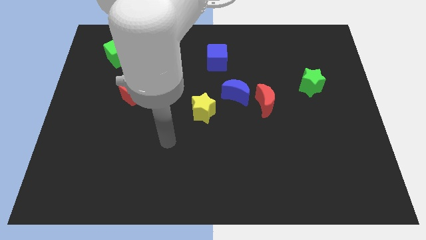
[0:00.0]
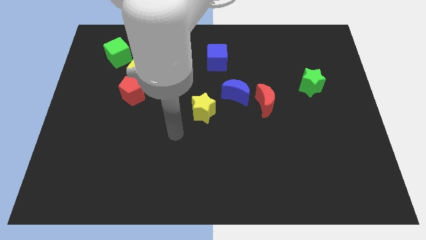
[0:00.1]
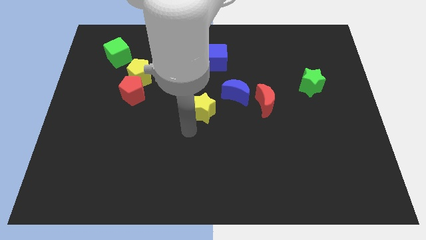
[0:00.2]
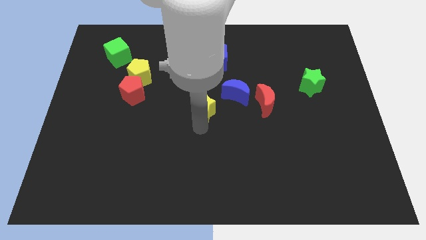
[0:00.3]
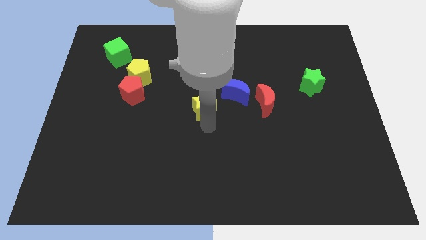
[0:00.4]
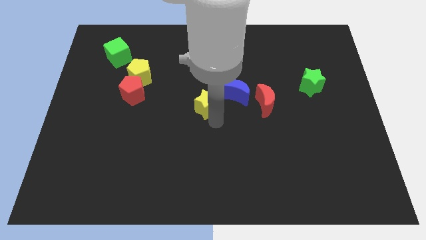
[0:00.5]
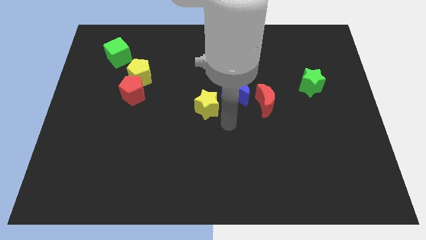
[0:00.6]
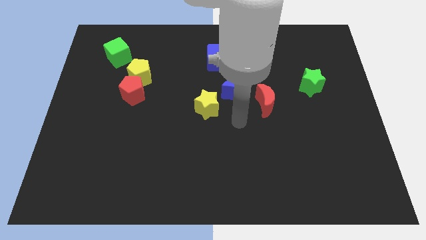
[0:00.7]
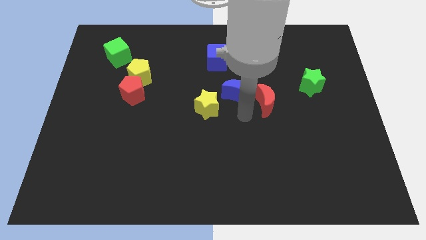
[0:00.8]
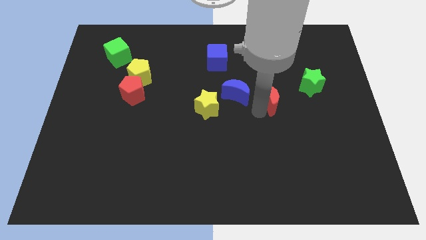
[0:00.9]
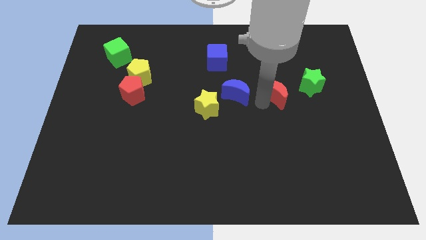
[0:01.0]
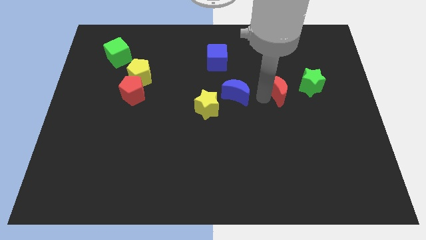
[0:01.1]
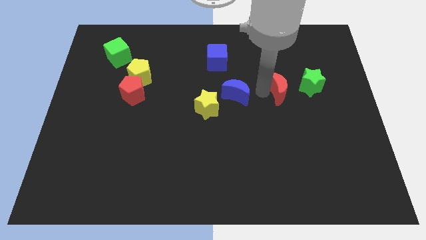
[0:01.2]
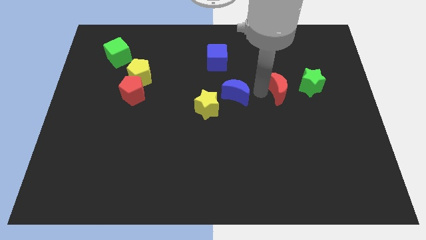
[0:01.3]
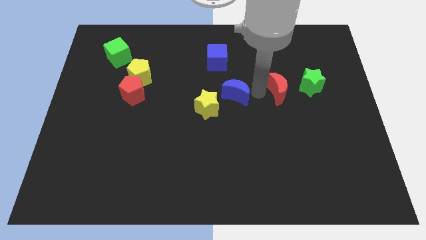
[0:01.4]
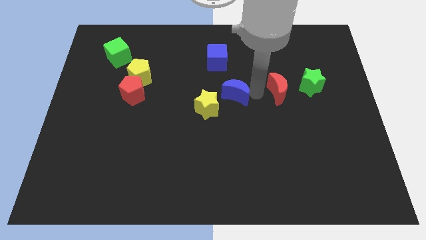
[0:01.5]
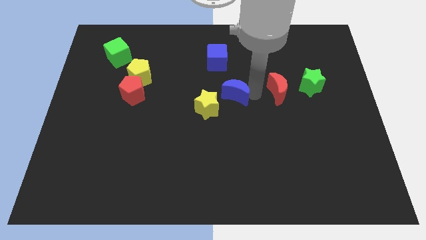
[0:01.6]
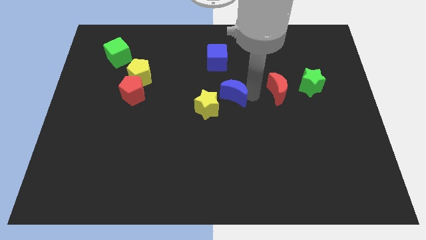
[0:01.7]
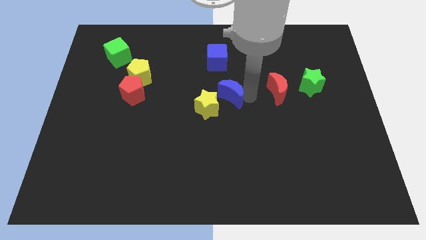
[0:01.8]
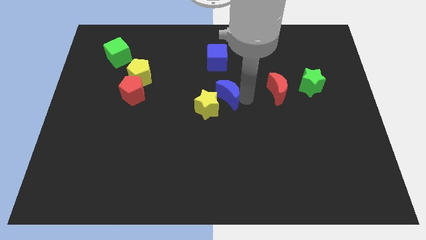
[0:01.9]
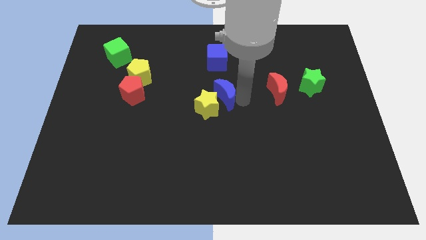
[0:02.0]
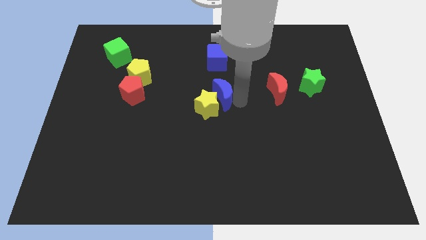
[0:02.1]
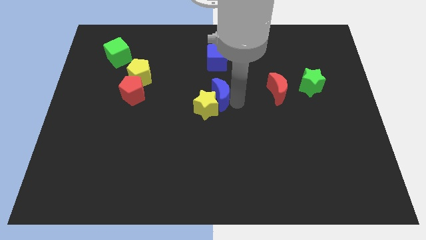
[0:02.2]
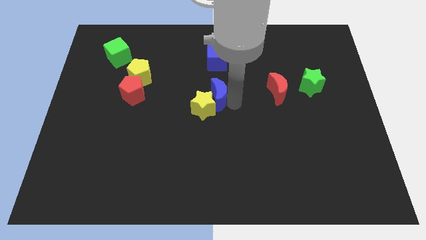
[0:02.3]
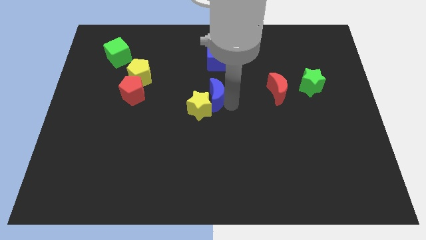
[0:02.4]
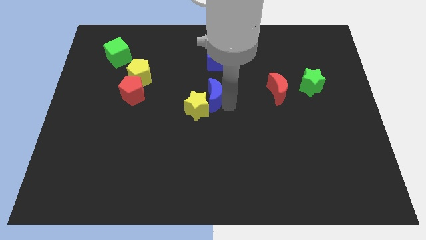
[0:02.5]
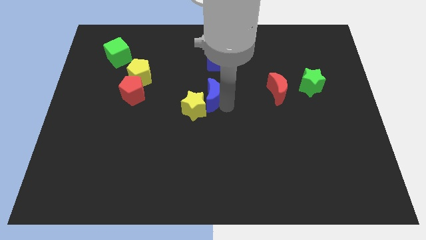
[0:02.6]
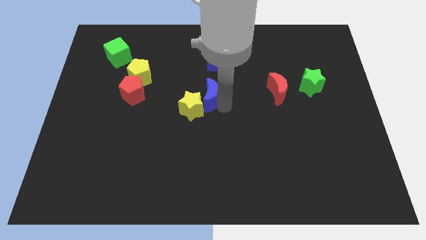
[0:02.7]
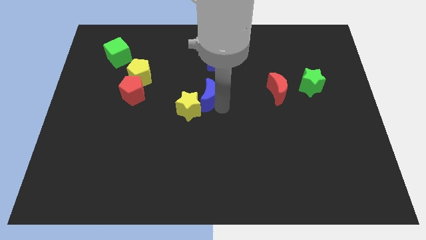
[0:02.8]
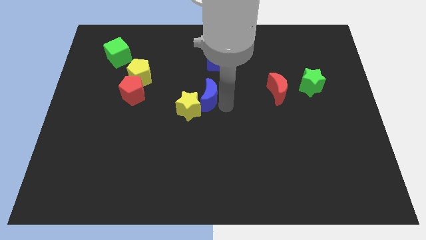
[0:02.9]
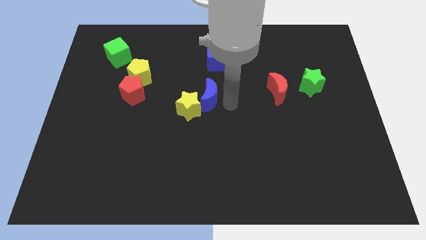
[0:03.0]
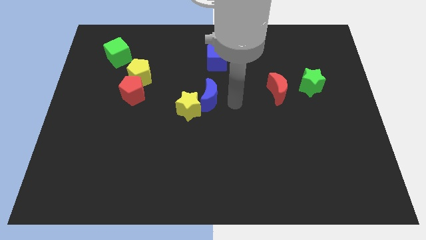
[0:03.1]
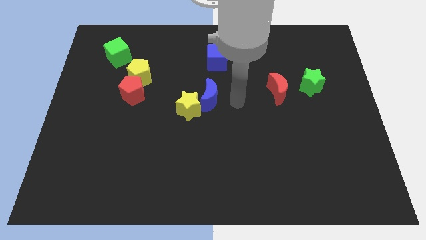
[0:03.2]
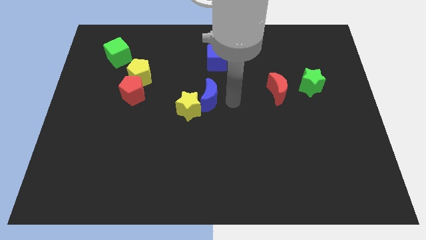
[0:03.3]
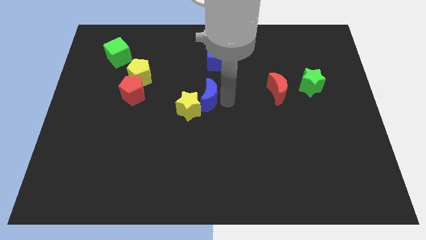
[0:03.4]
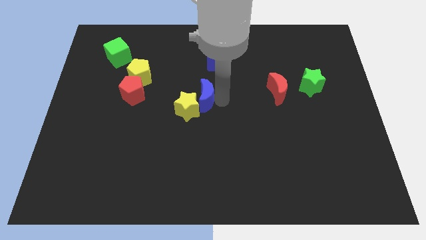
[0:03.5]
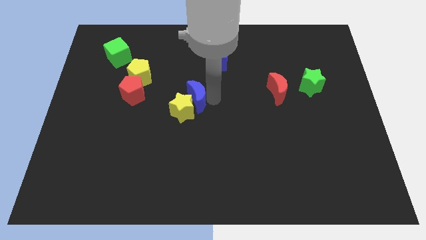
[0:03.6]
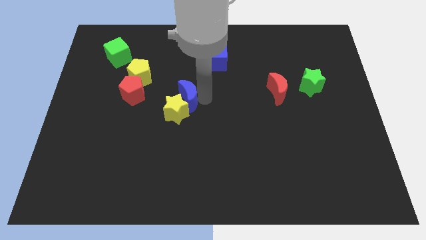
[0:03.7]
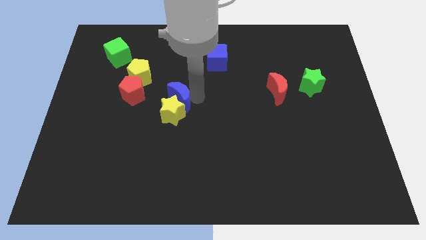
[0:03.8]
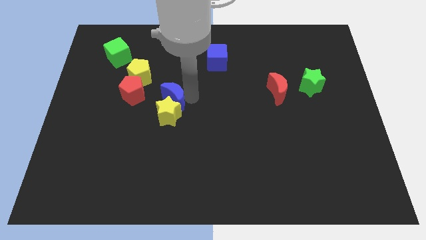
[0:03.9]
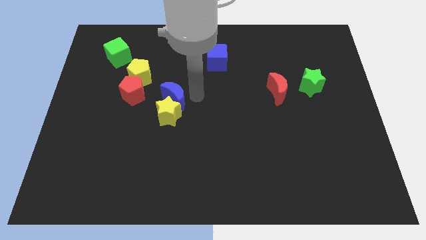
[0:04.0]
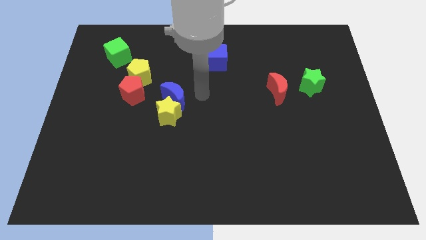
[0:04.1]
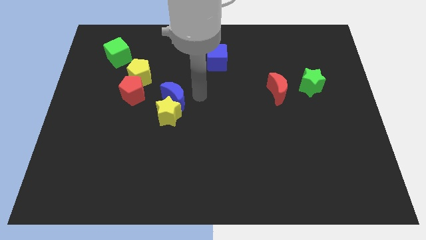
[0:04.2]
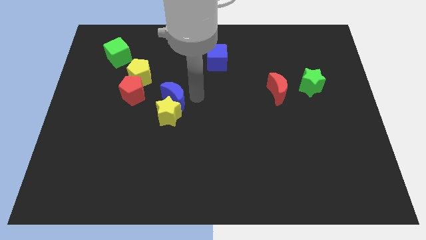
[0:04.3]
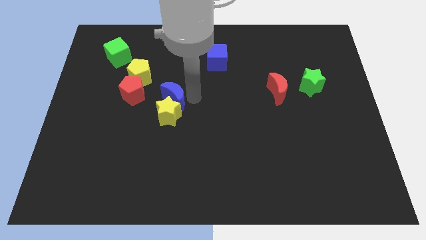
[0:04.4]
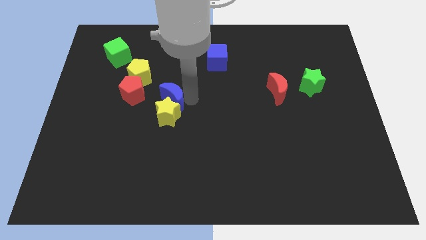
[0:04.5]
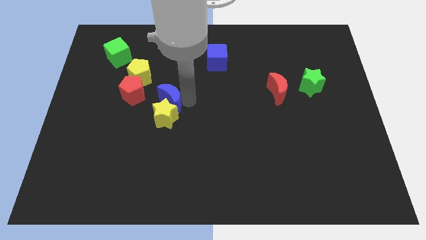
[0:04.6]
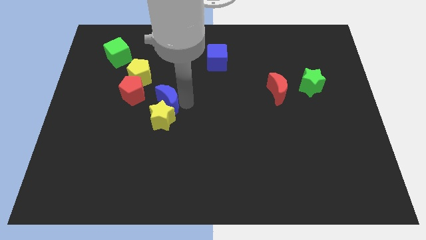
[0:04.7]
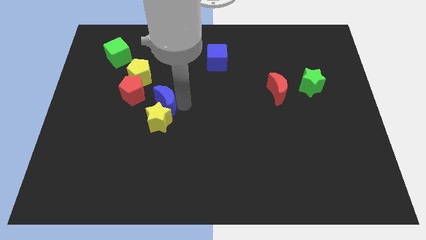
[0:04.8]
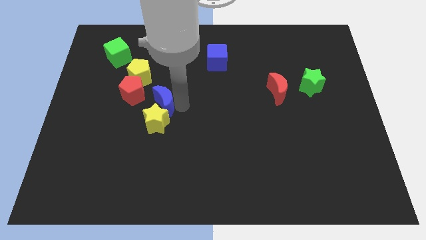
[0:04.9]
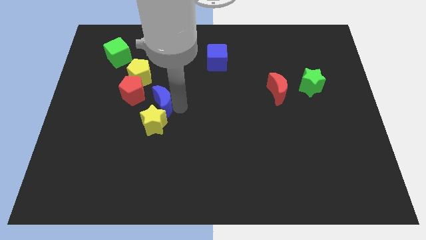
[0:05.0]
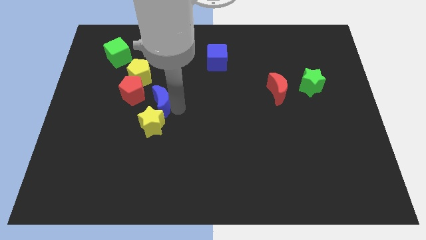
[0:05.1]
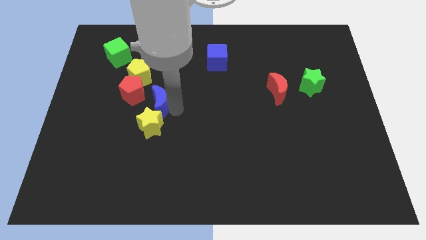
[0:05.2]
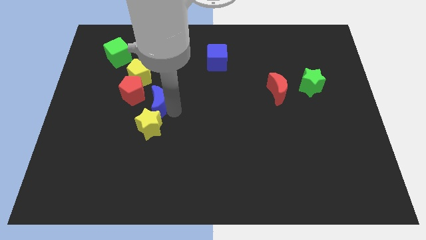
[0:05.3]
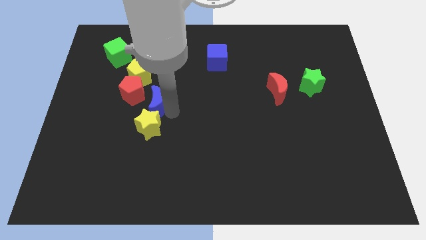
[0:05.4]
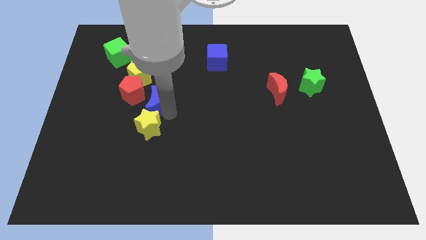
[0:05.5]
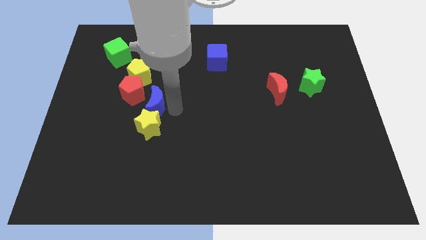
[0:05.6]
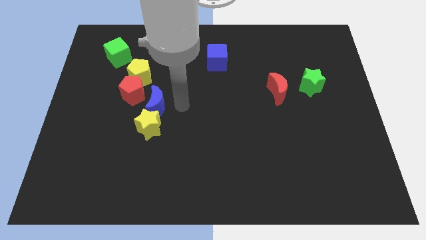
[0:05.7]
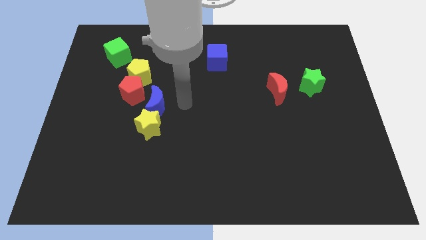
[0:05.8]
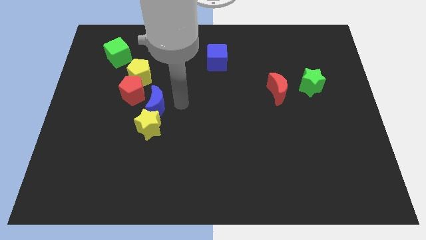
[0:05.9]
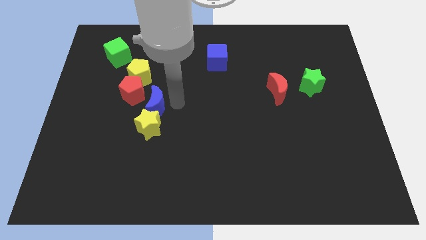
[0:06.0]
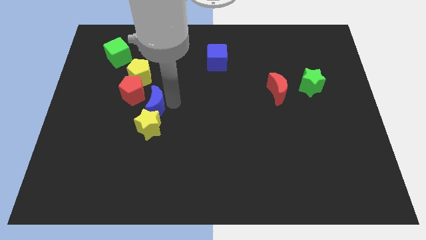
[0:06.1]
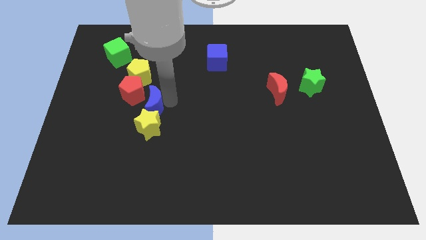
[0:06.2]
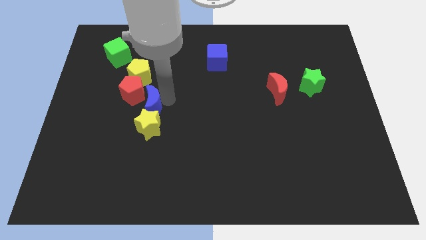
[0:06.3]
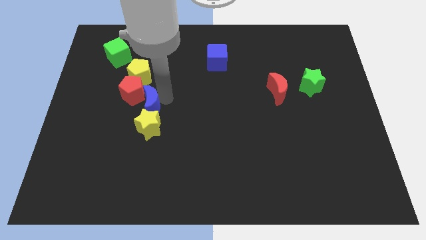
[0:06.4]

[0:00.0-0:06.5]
slide the blue moon left

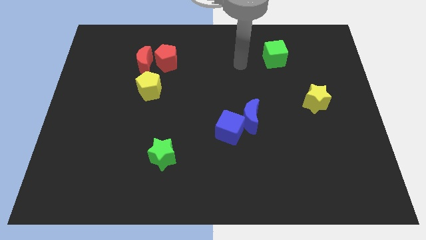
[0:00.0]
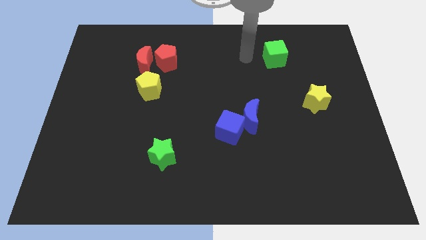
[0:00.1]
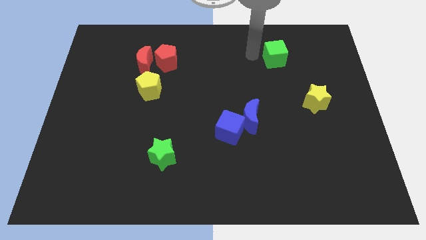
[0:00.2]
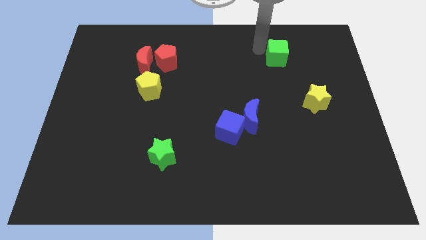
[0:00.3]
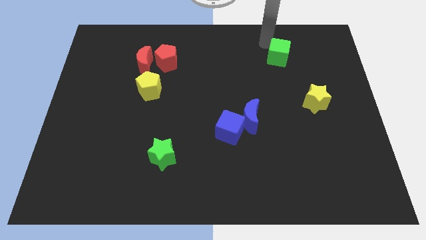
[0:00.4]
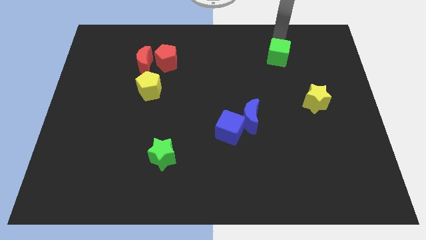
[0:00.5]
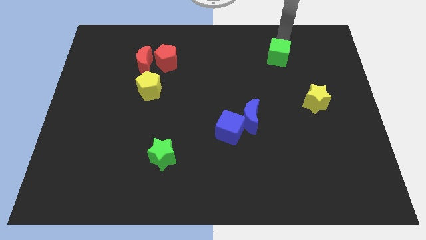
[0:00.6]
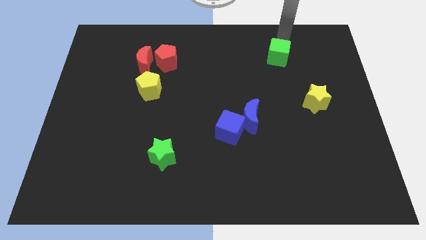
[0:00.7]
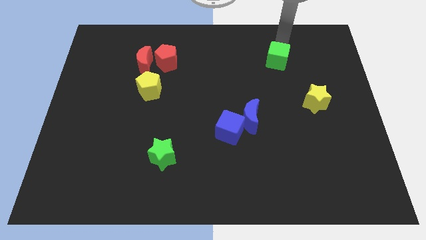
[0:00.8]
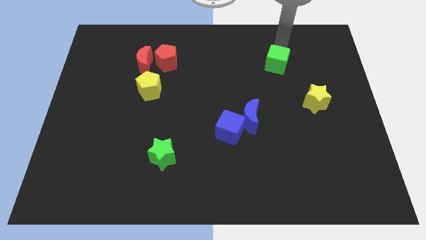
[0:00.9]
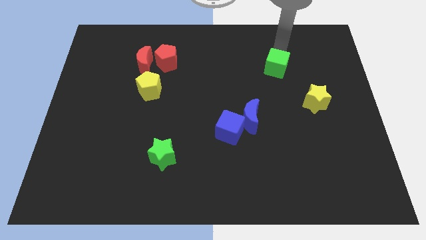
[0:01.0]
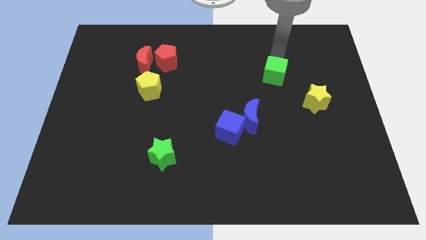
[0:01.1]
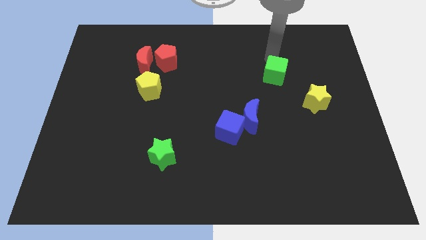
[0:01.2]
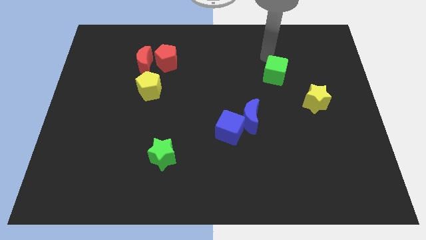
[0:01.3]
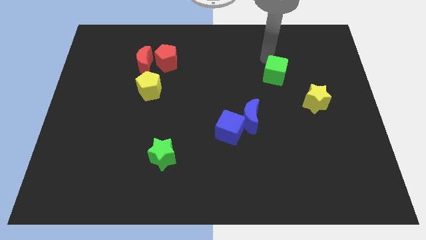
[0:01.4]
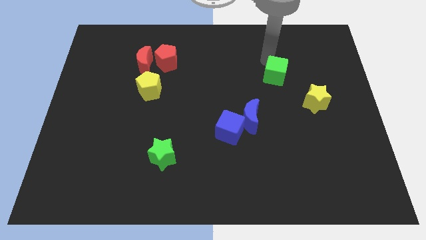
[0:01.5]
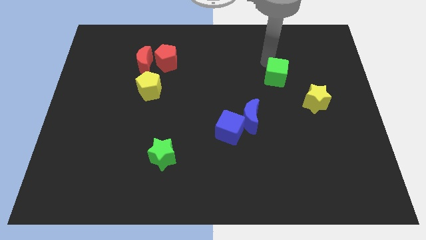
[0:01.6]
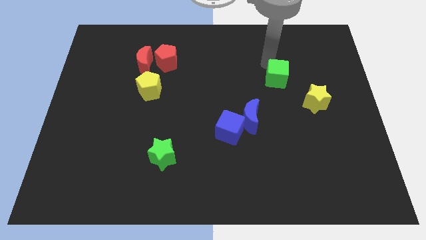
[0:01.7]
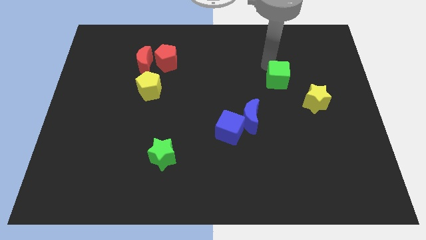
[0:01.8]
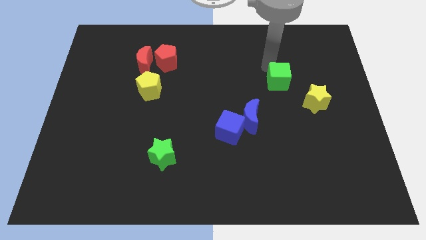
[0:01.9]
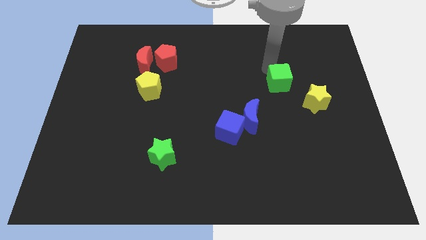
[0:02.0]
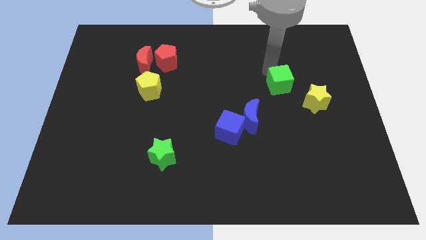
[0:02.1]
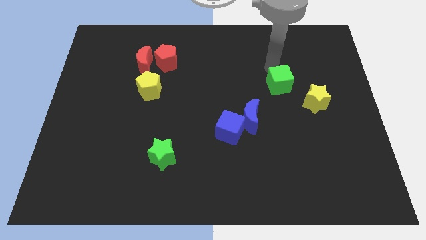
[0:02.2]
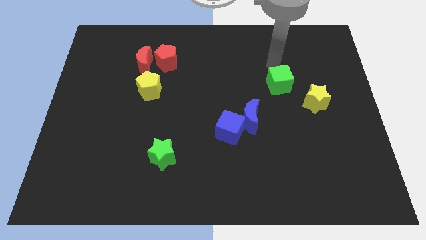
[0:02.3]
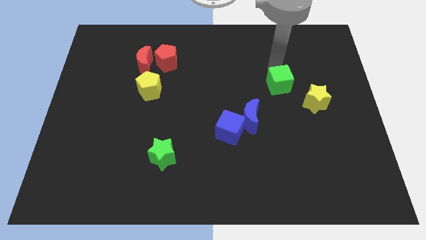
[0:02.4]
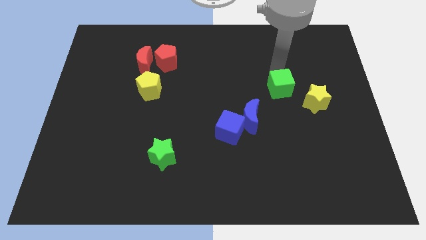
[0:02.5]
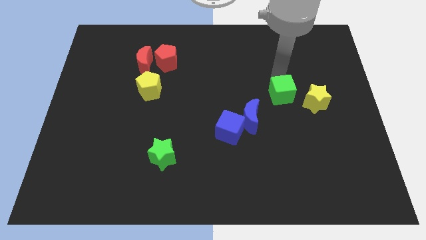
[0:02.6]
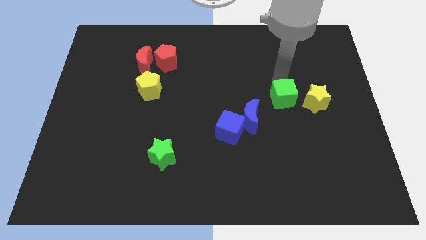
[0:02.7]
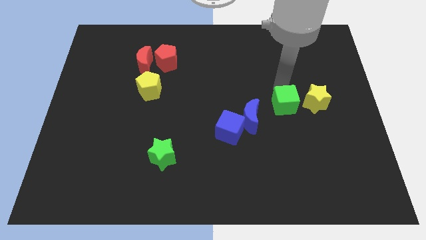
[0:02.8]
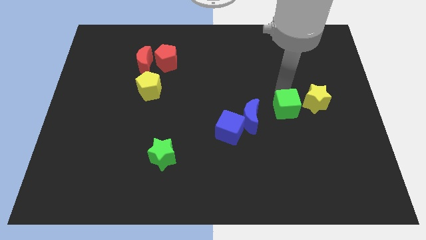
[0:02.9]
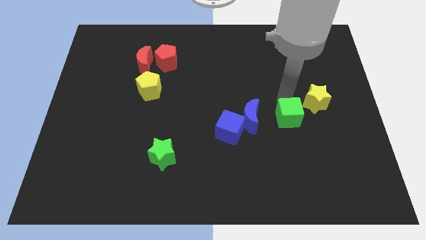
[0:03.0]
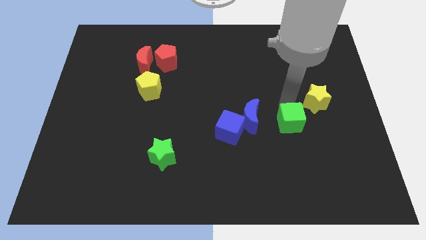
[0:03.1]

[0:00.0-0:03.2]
push the green cube downwards
